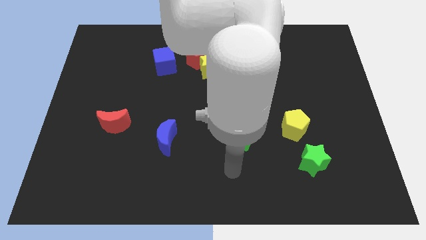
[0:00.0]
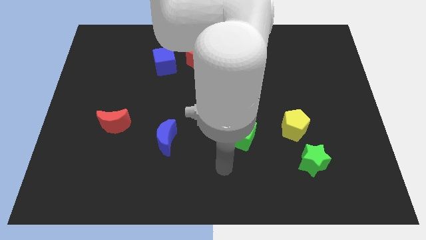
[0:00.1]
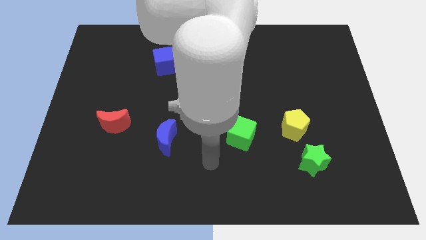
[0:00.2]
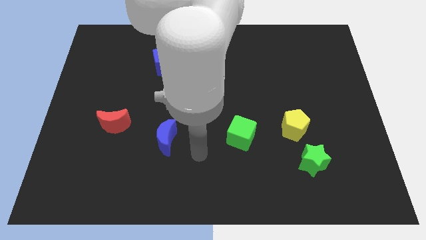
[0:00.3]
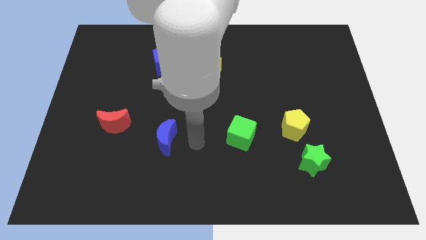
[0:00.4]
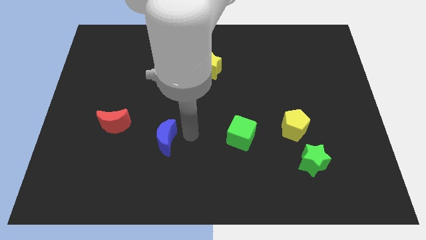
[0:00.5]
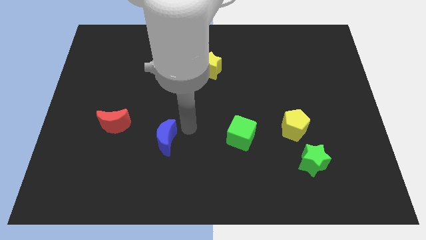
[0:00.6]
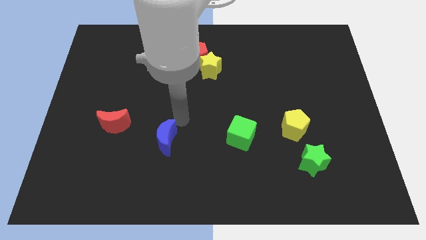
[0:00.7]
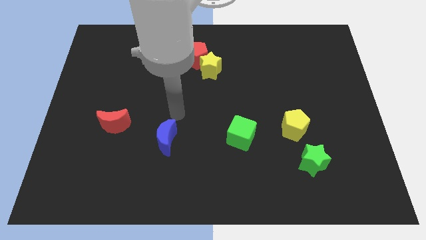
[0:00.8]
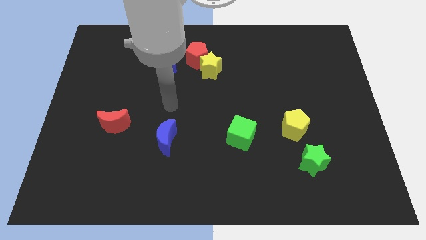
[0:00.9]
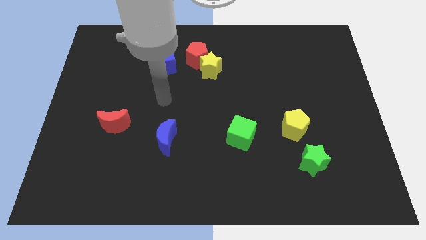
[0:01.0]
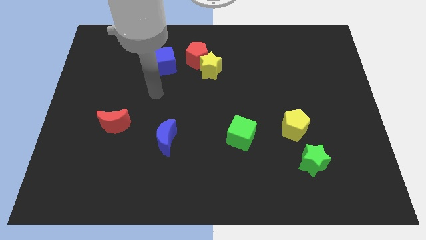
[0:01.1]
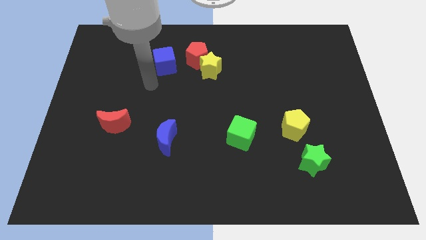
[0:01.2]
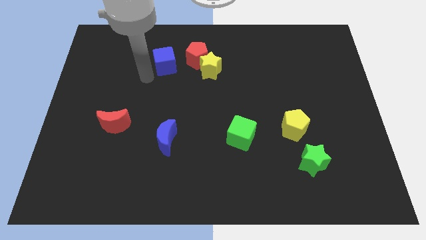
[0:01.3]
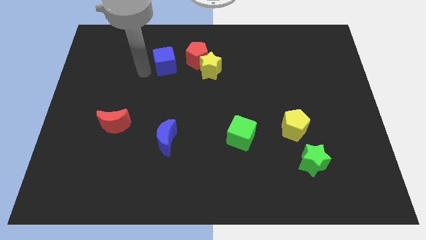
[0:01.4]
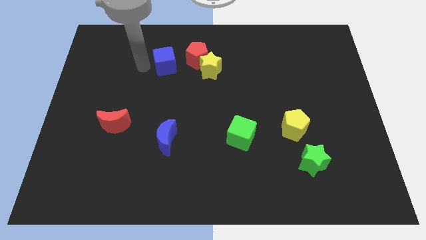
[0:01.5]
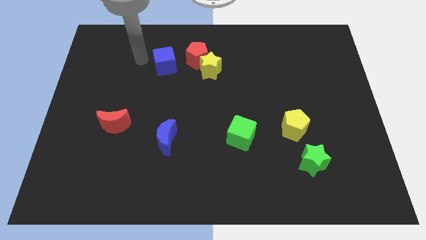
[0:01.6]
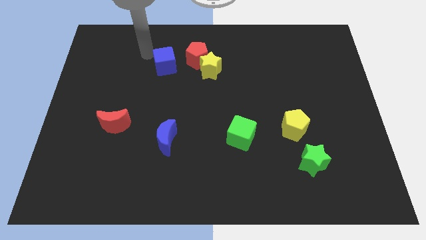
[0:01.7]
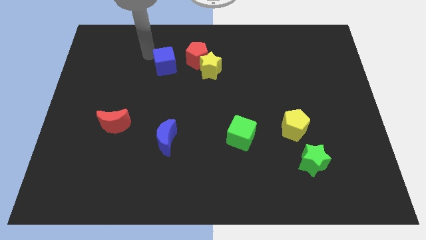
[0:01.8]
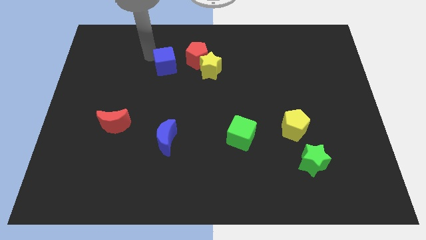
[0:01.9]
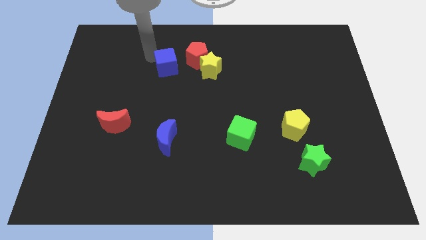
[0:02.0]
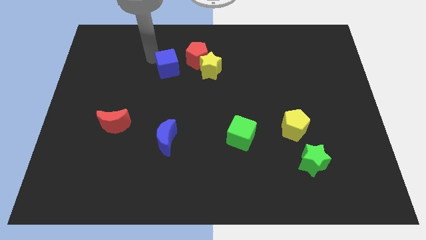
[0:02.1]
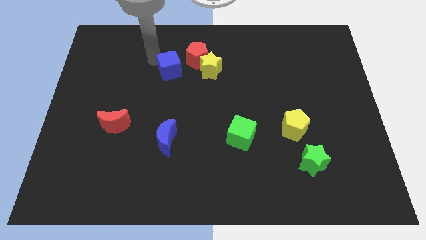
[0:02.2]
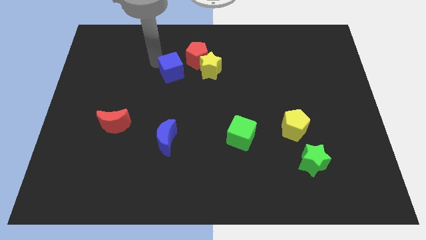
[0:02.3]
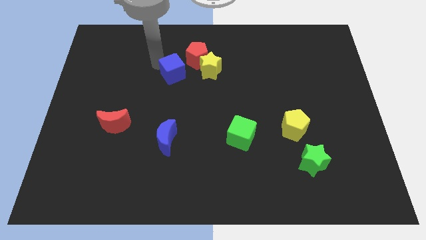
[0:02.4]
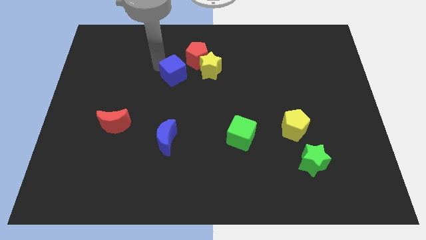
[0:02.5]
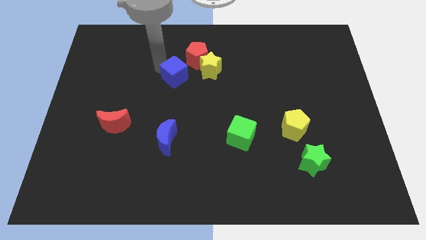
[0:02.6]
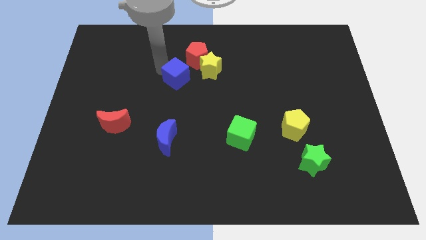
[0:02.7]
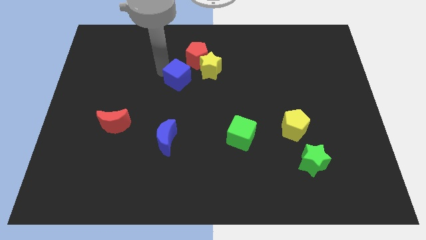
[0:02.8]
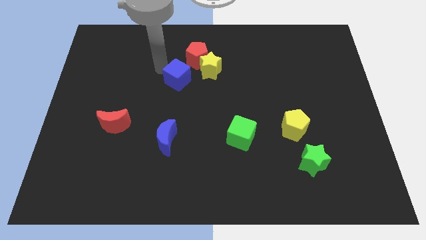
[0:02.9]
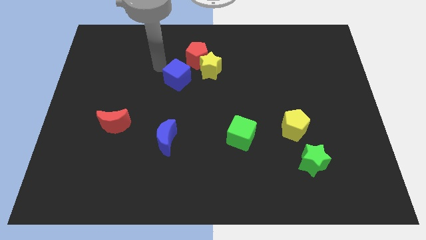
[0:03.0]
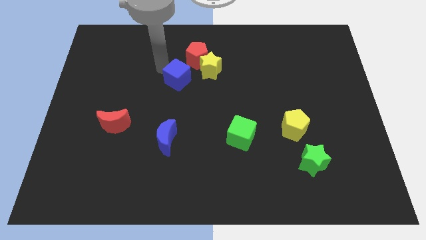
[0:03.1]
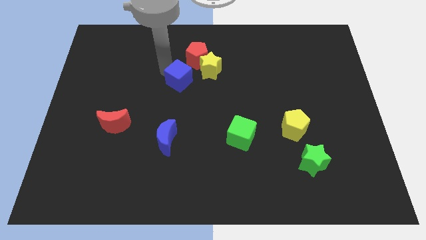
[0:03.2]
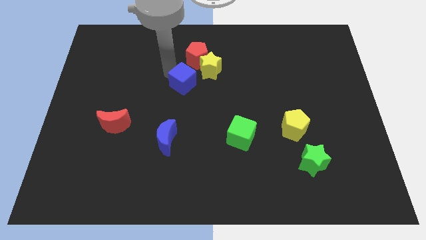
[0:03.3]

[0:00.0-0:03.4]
push the blue cube diagonally downwards and right a little

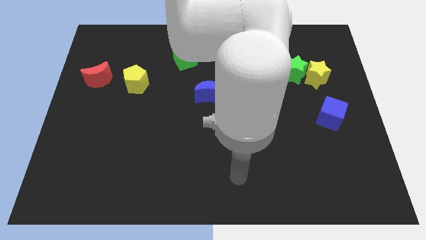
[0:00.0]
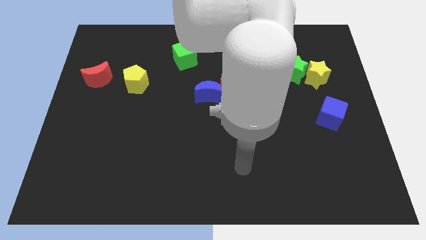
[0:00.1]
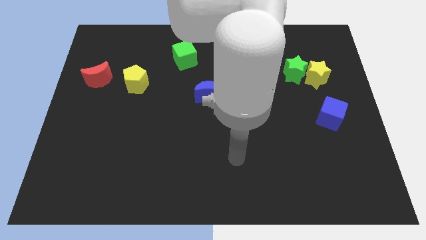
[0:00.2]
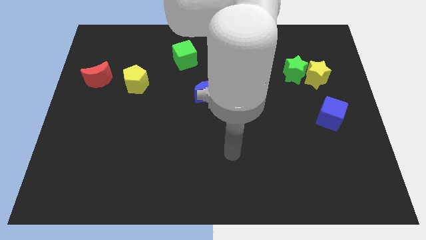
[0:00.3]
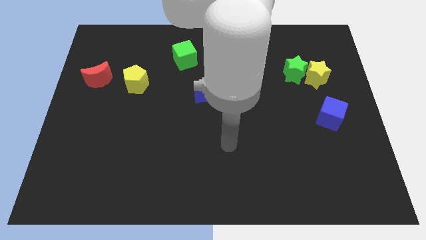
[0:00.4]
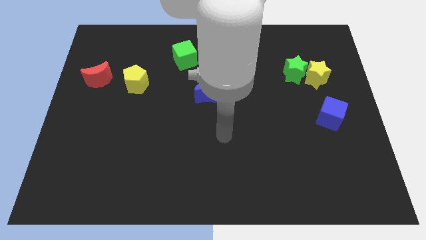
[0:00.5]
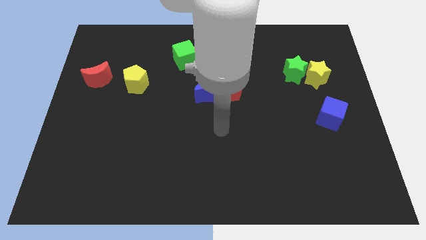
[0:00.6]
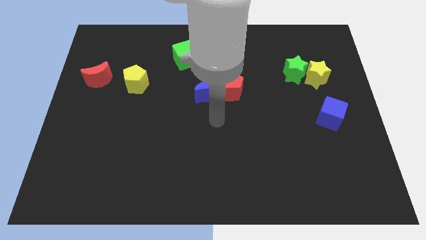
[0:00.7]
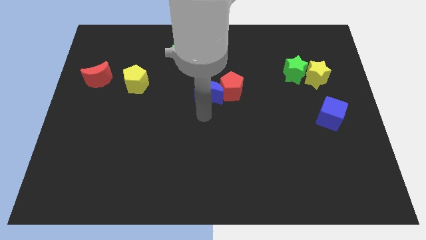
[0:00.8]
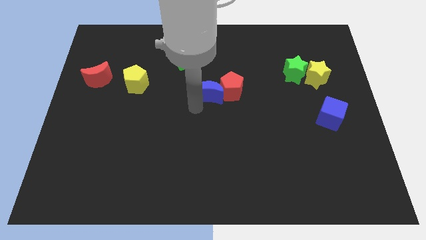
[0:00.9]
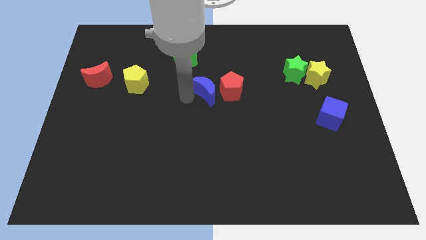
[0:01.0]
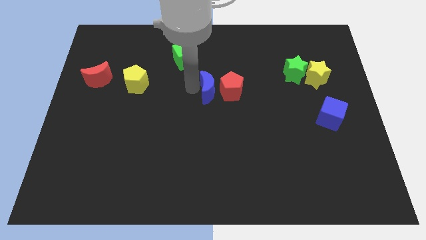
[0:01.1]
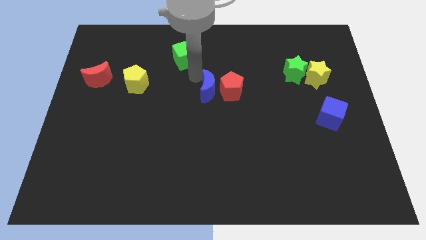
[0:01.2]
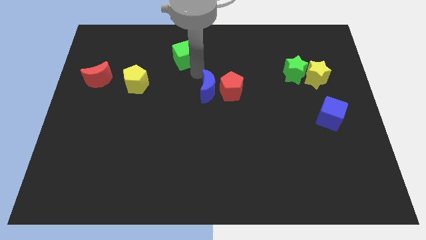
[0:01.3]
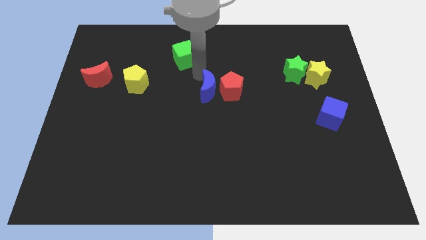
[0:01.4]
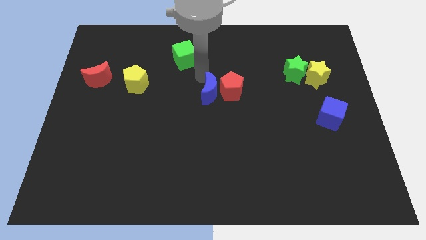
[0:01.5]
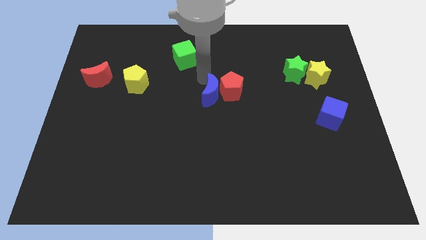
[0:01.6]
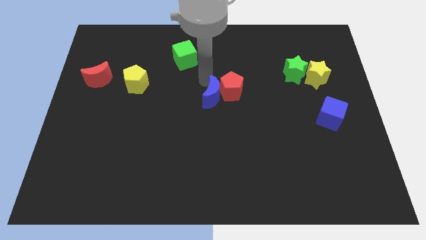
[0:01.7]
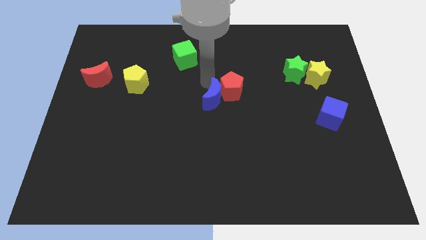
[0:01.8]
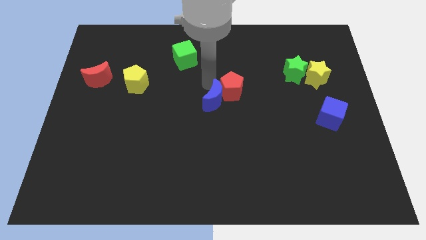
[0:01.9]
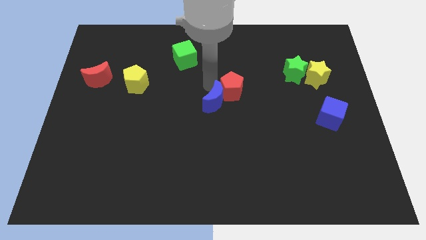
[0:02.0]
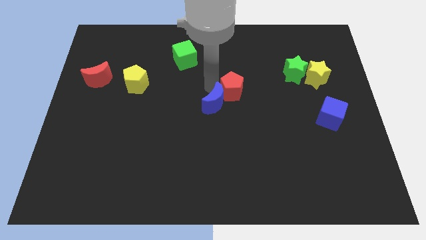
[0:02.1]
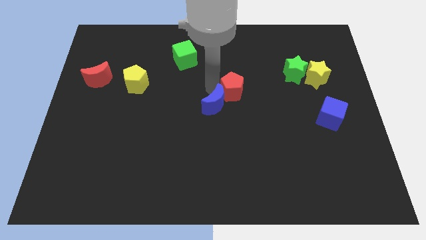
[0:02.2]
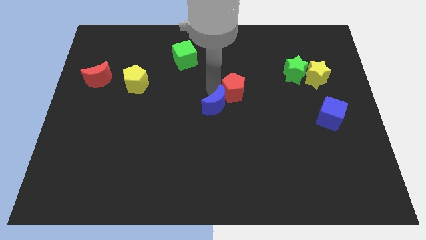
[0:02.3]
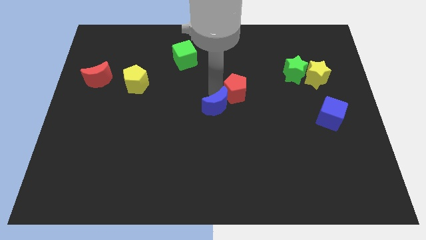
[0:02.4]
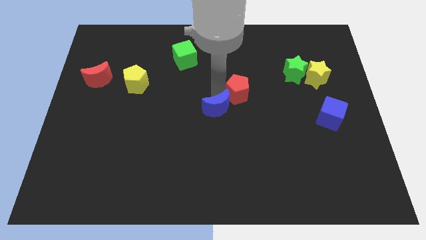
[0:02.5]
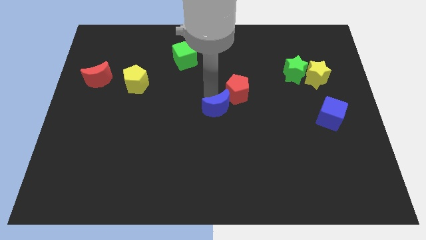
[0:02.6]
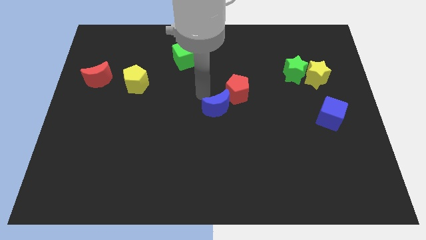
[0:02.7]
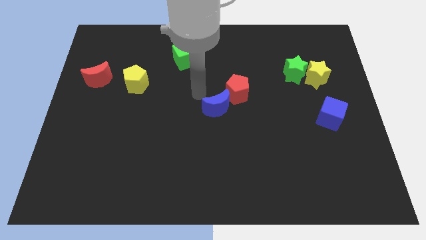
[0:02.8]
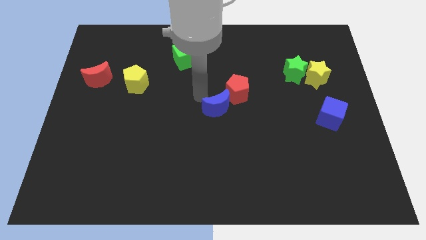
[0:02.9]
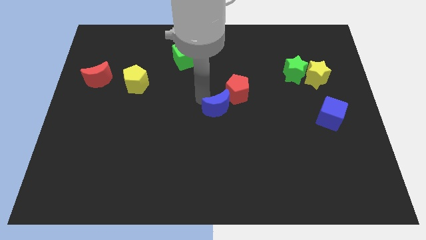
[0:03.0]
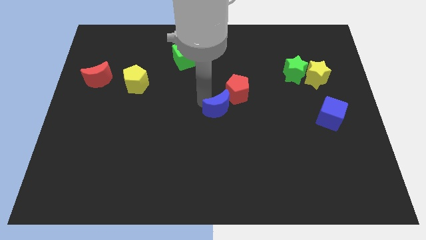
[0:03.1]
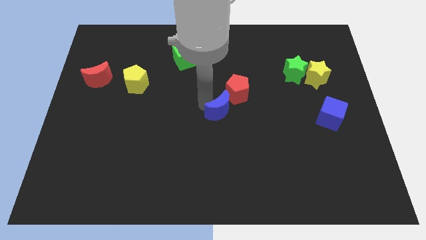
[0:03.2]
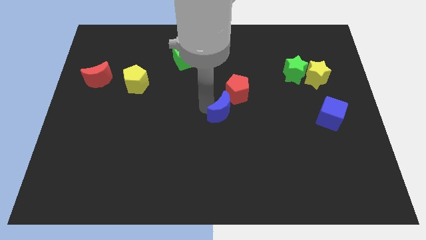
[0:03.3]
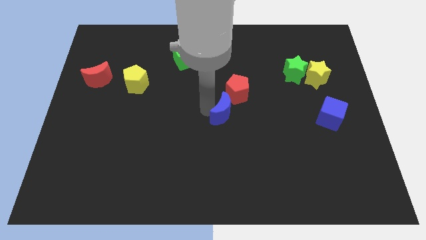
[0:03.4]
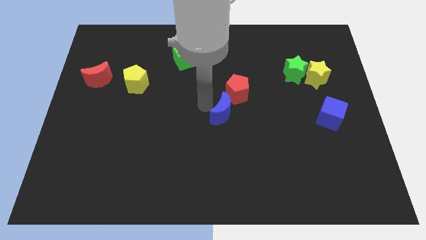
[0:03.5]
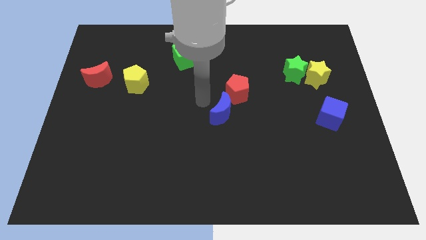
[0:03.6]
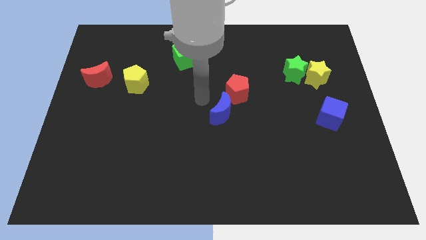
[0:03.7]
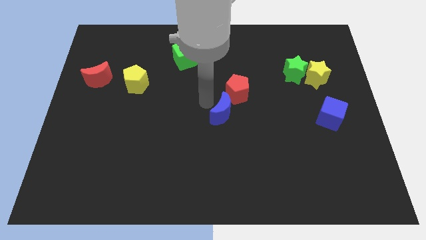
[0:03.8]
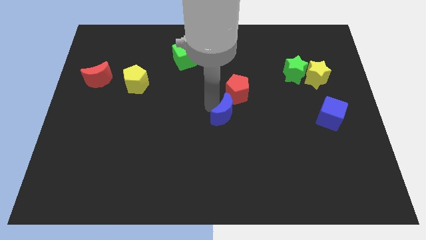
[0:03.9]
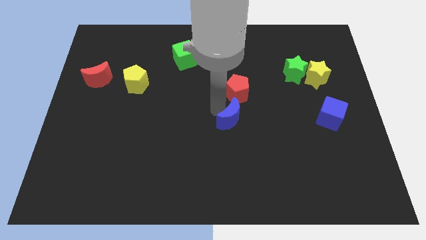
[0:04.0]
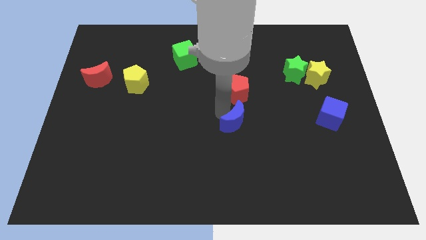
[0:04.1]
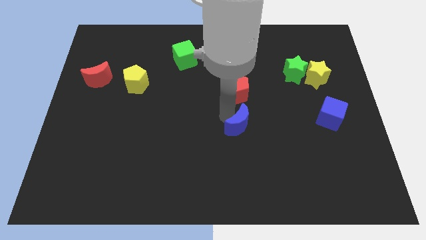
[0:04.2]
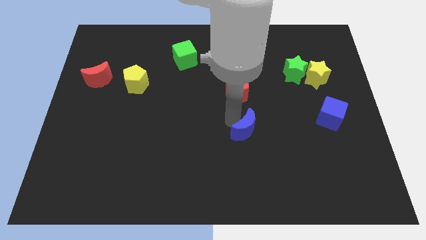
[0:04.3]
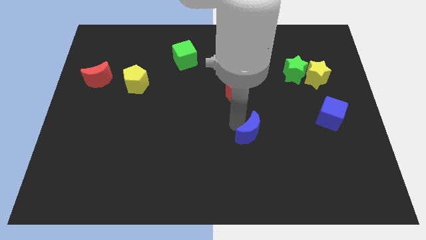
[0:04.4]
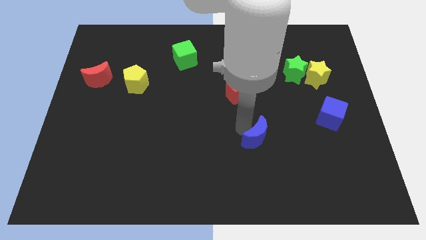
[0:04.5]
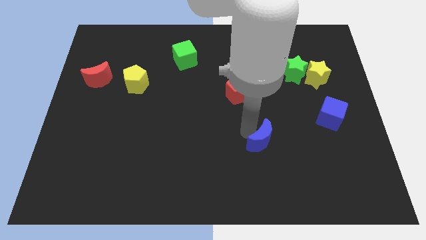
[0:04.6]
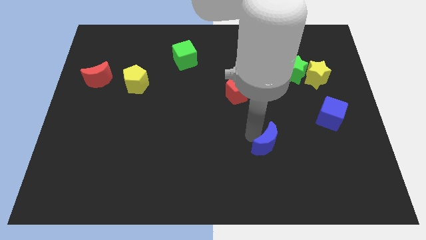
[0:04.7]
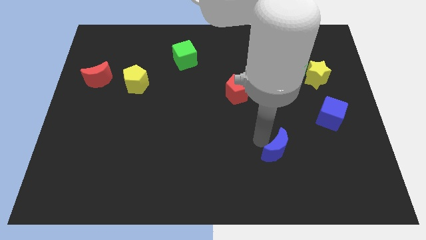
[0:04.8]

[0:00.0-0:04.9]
push the blue moon downwards and then right
